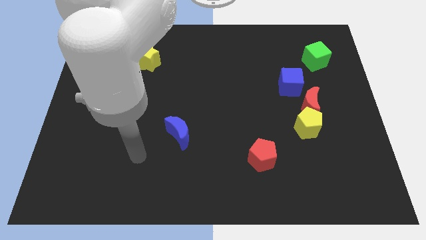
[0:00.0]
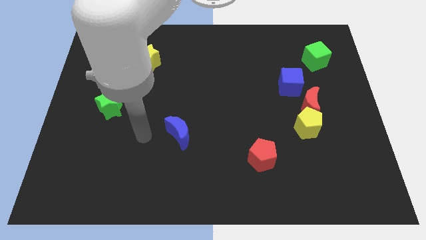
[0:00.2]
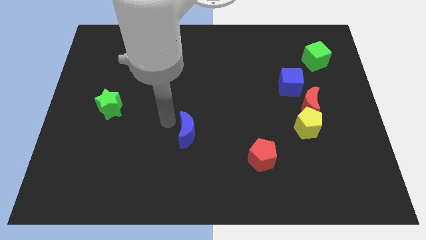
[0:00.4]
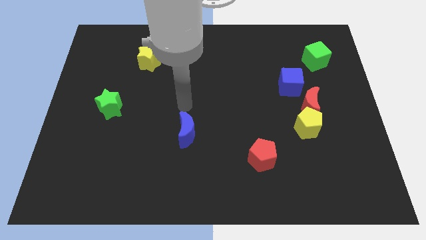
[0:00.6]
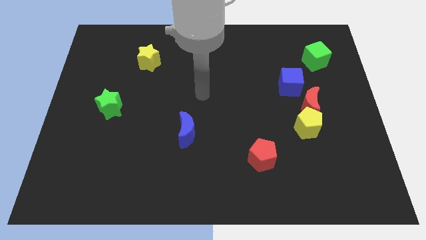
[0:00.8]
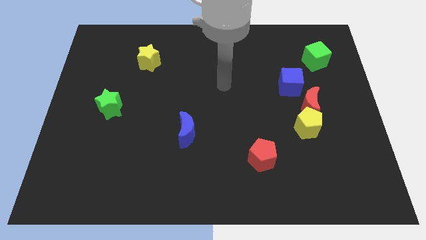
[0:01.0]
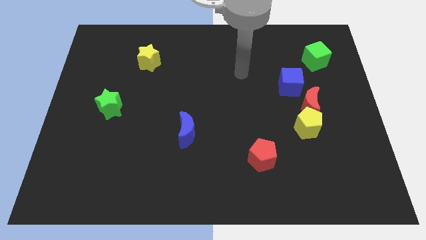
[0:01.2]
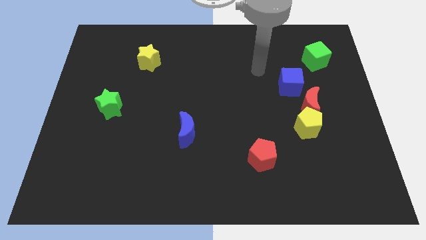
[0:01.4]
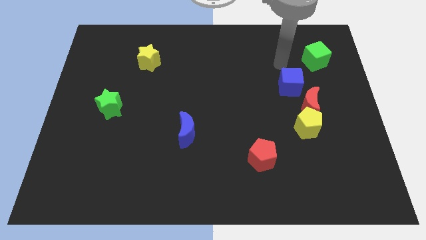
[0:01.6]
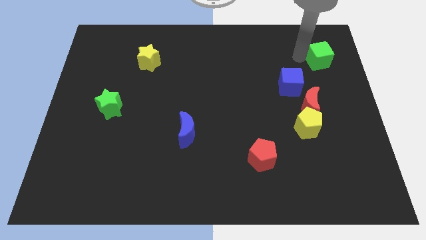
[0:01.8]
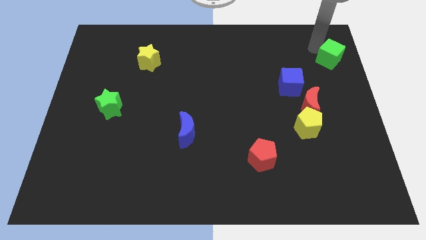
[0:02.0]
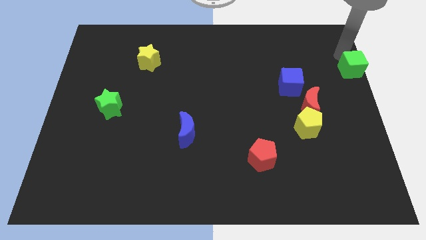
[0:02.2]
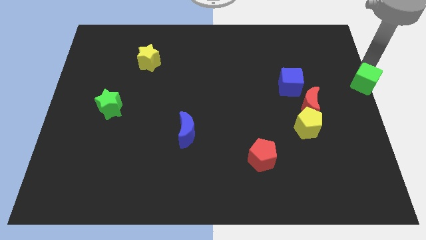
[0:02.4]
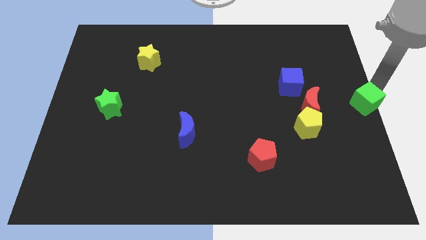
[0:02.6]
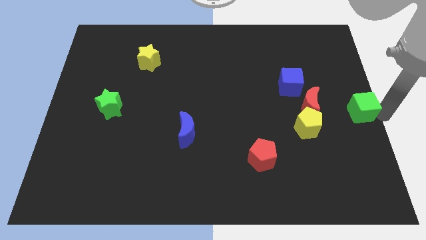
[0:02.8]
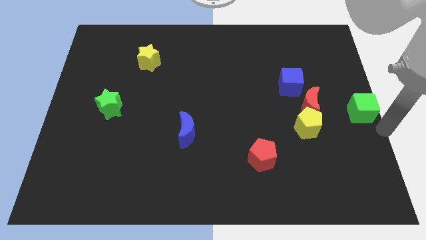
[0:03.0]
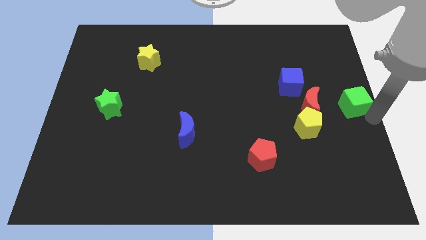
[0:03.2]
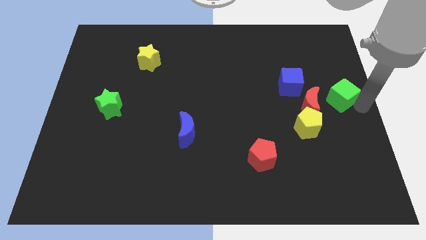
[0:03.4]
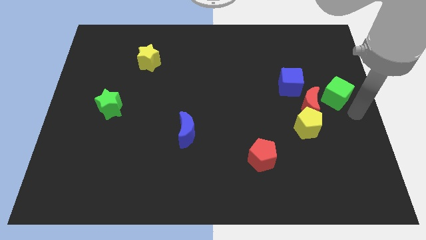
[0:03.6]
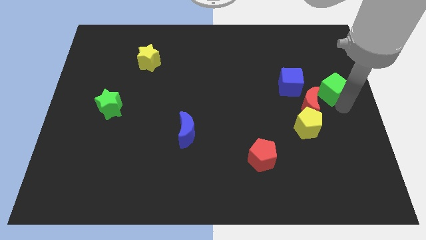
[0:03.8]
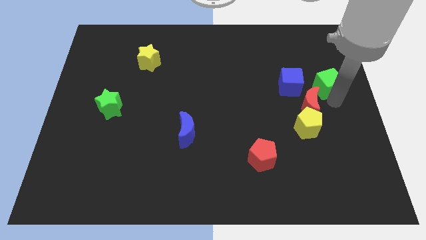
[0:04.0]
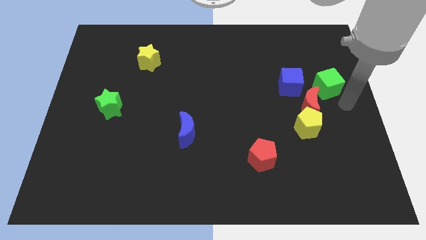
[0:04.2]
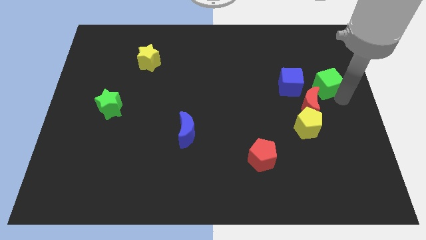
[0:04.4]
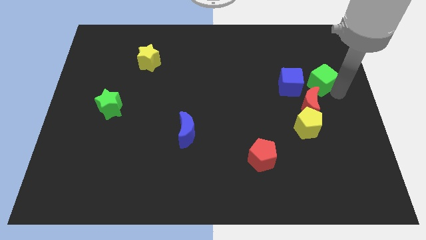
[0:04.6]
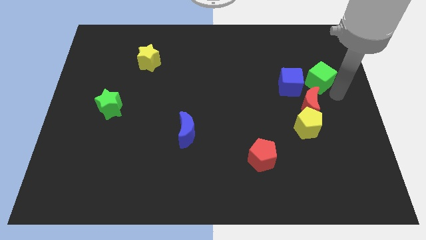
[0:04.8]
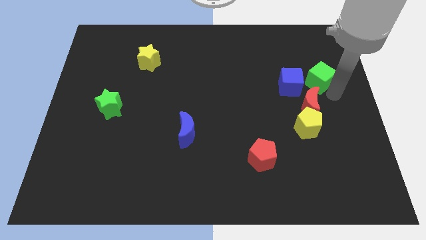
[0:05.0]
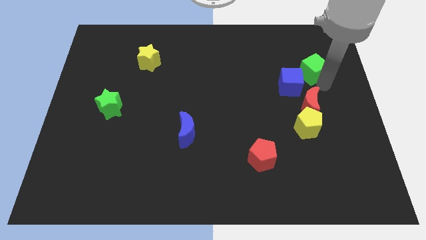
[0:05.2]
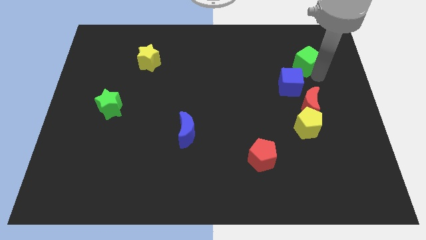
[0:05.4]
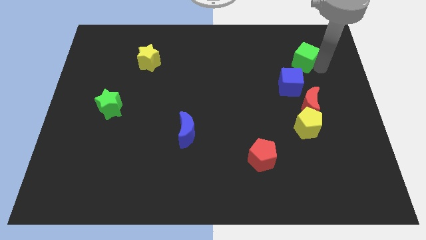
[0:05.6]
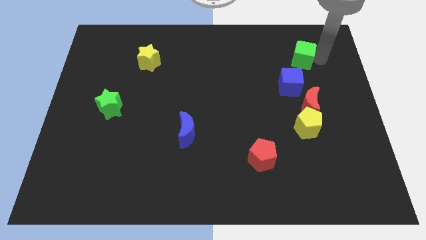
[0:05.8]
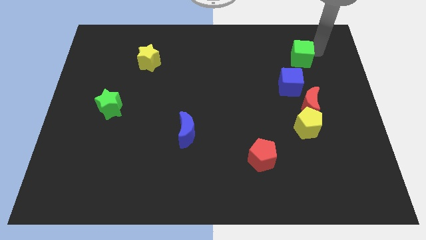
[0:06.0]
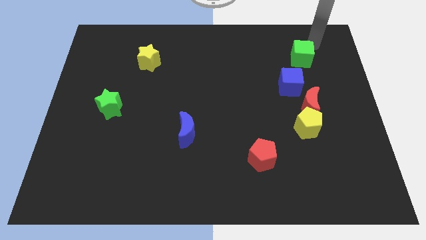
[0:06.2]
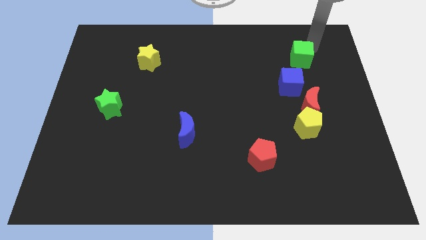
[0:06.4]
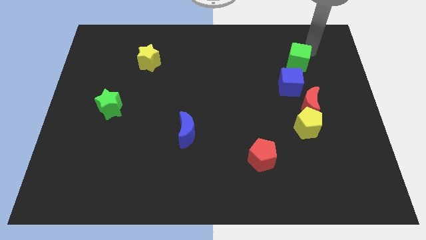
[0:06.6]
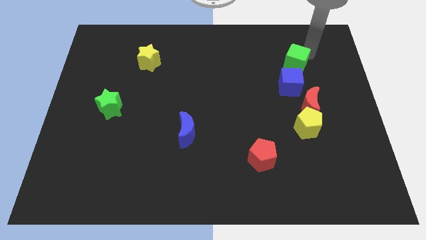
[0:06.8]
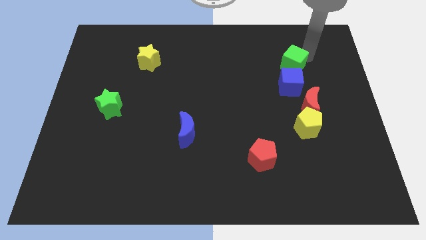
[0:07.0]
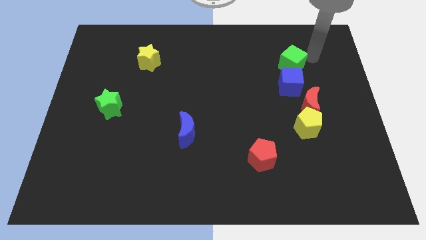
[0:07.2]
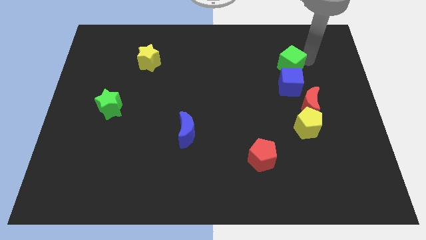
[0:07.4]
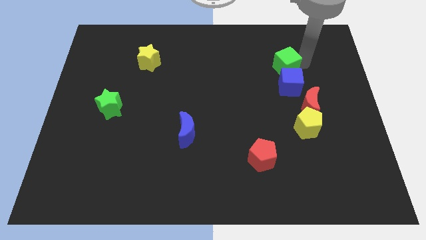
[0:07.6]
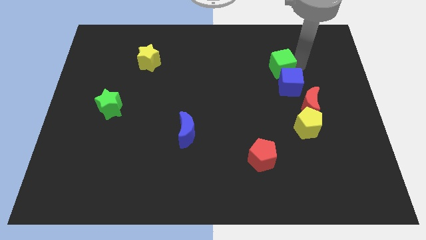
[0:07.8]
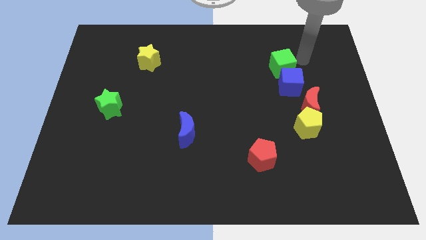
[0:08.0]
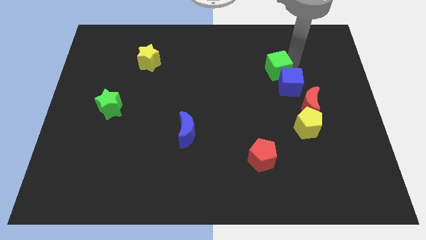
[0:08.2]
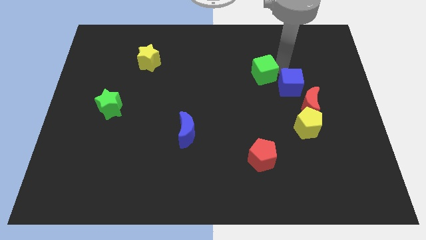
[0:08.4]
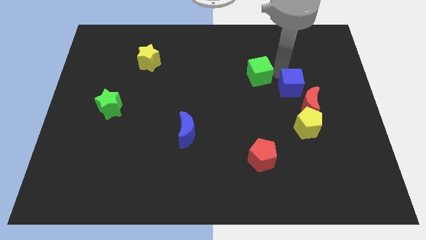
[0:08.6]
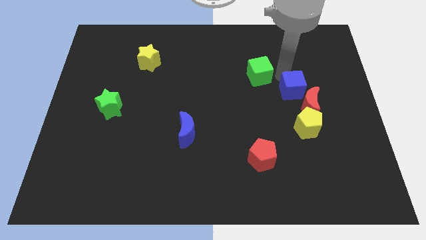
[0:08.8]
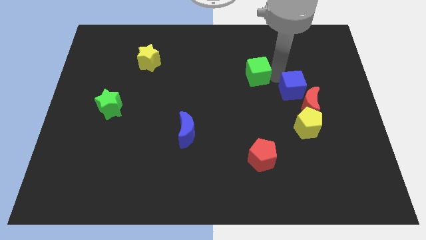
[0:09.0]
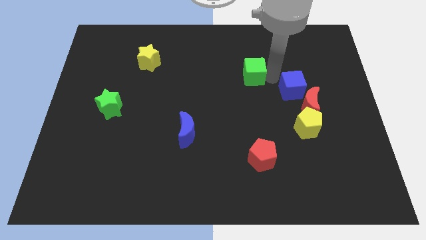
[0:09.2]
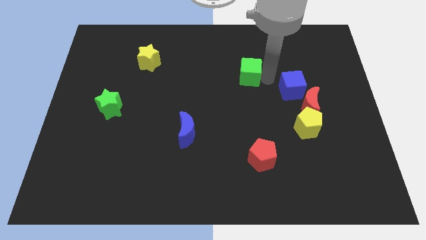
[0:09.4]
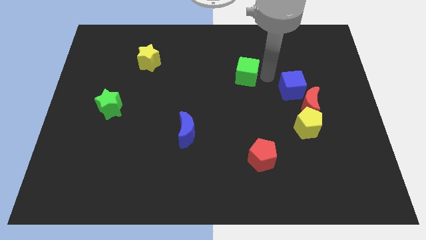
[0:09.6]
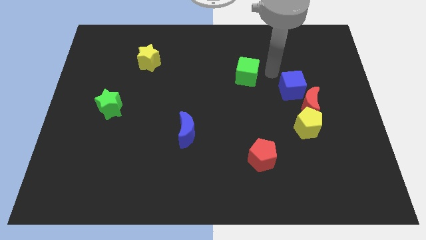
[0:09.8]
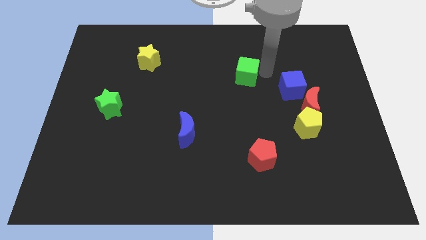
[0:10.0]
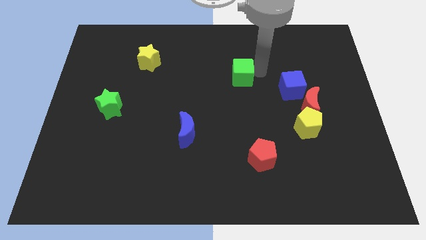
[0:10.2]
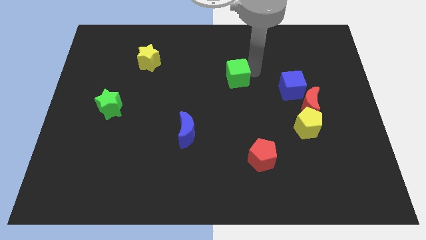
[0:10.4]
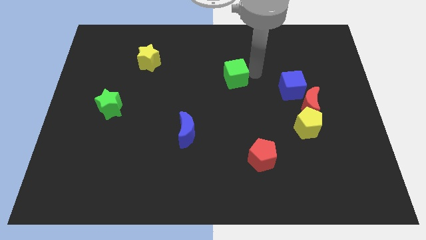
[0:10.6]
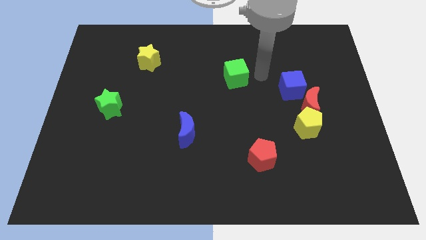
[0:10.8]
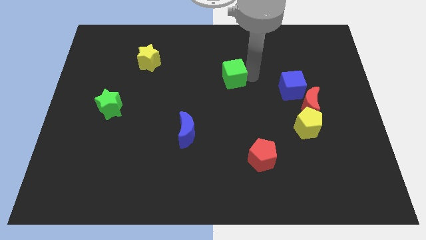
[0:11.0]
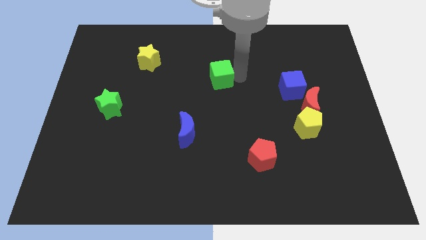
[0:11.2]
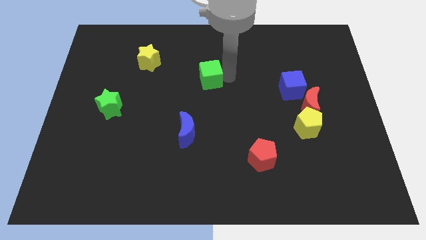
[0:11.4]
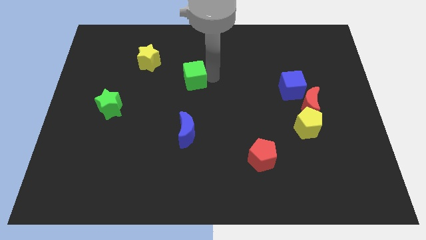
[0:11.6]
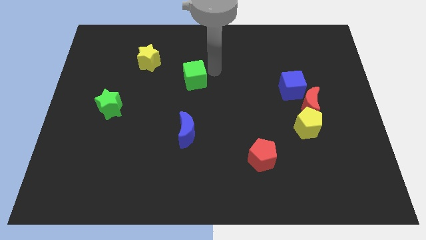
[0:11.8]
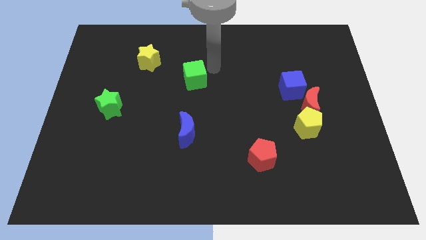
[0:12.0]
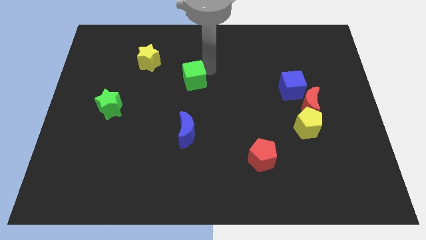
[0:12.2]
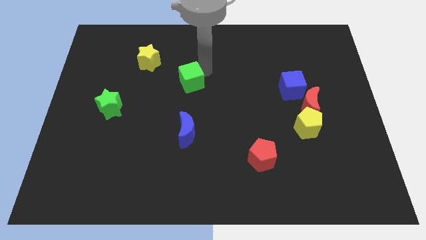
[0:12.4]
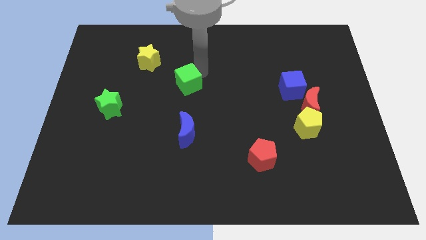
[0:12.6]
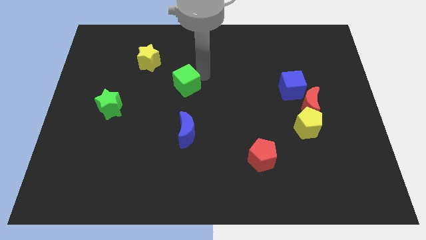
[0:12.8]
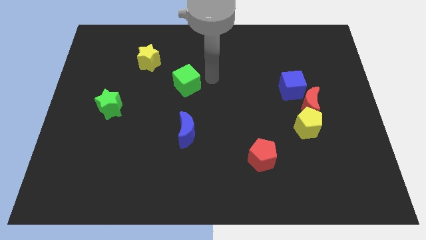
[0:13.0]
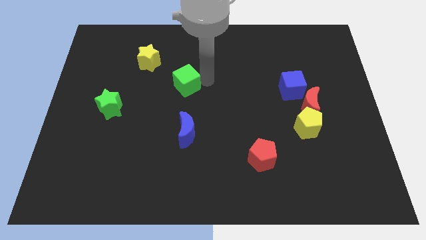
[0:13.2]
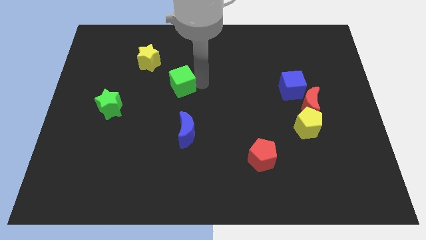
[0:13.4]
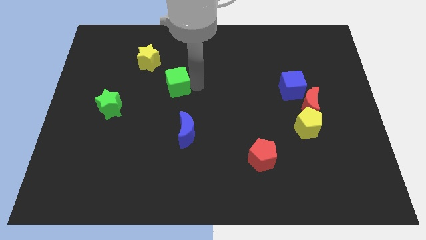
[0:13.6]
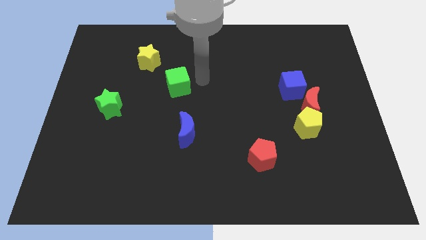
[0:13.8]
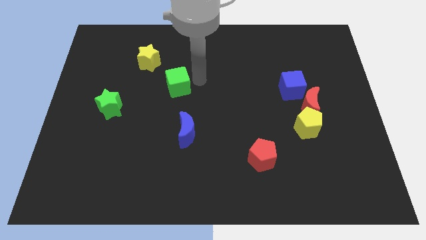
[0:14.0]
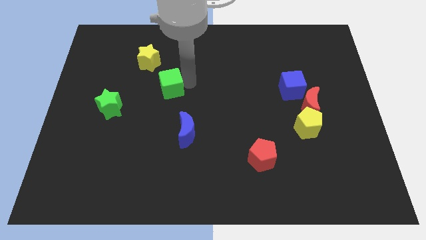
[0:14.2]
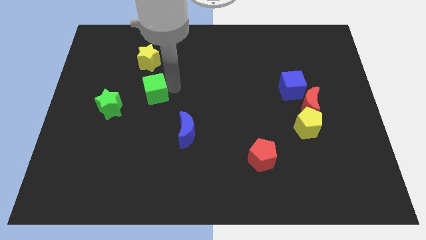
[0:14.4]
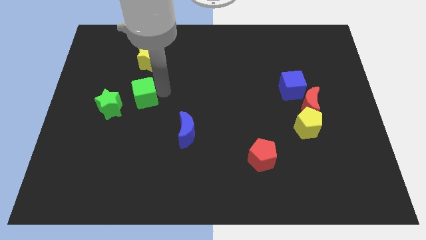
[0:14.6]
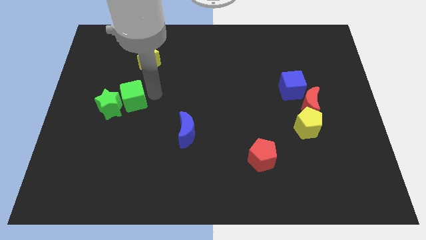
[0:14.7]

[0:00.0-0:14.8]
put the green cube next to the green star
